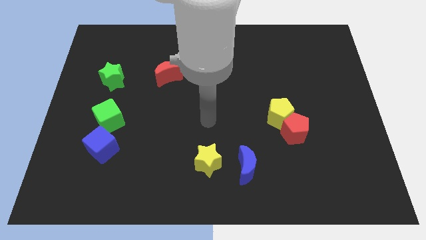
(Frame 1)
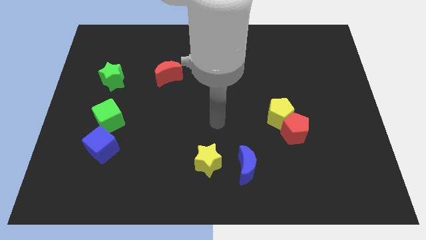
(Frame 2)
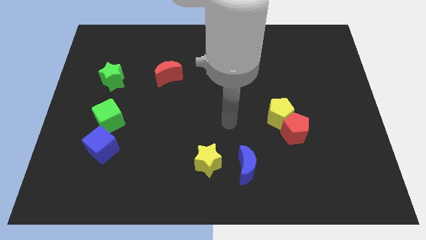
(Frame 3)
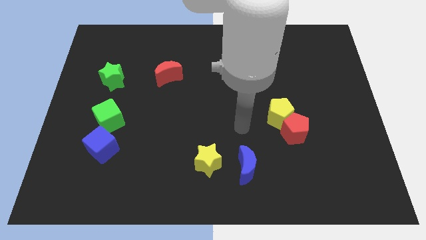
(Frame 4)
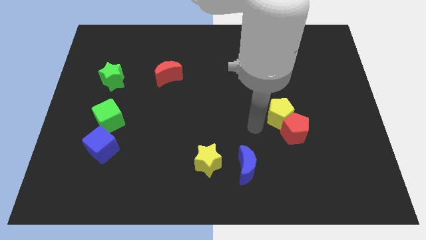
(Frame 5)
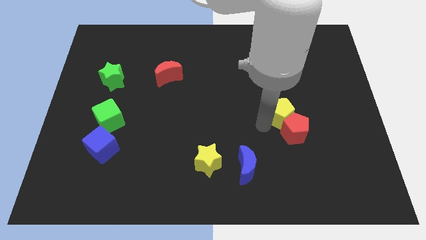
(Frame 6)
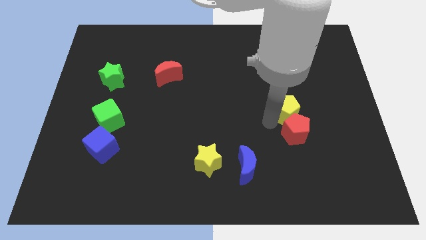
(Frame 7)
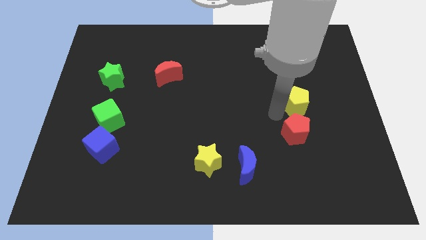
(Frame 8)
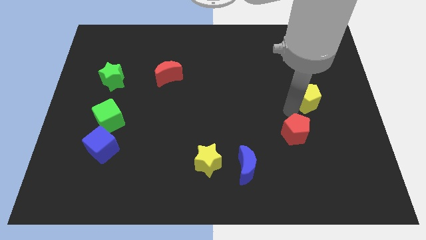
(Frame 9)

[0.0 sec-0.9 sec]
pull the red pentagon apart from the yellow pentagon

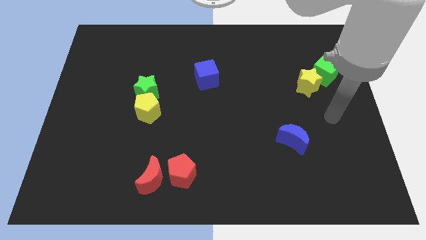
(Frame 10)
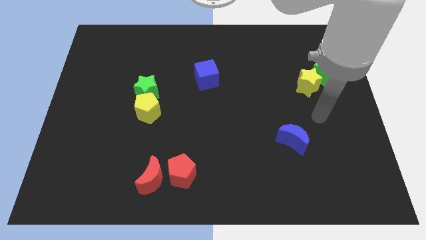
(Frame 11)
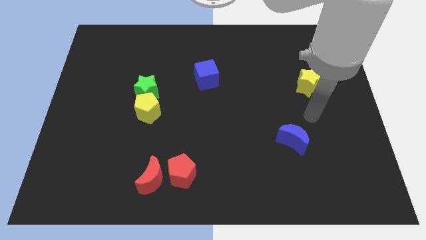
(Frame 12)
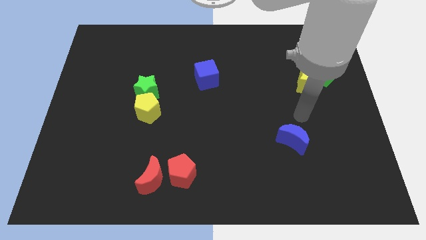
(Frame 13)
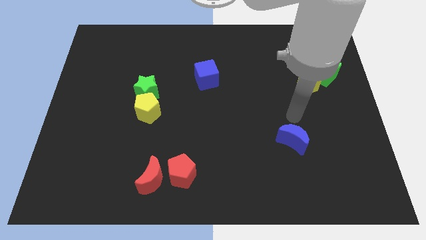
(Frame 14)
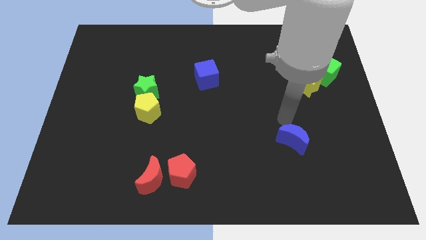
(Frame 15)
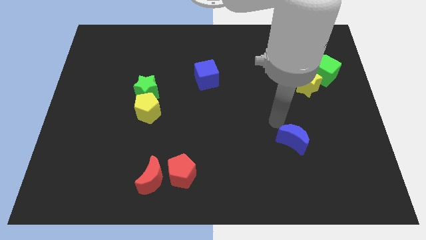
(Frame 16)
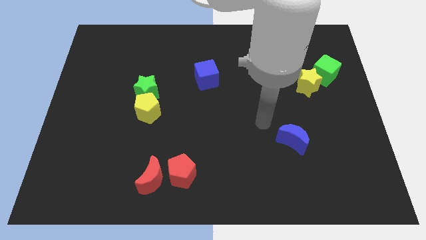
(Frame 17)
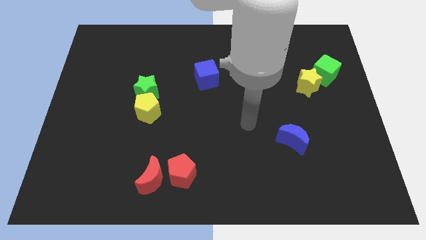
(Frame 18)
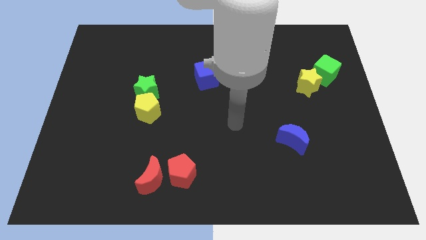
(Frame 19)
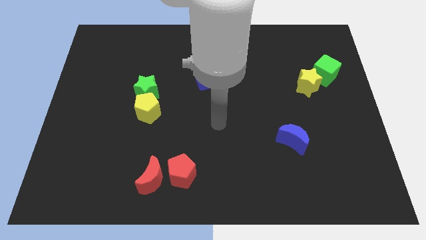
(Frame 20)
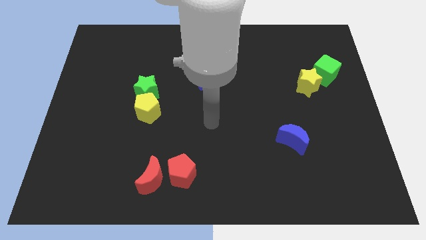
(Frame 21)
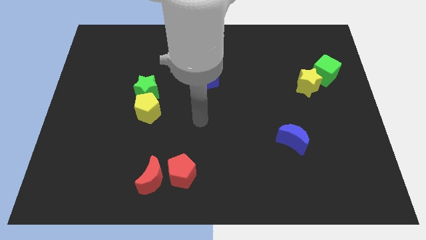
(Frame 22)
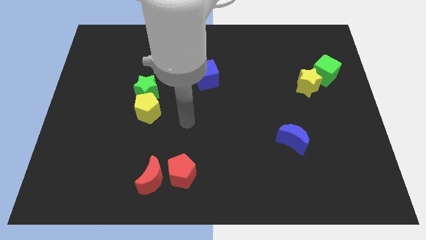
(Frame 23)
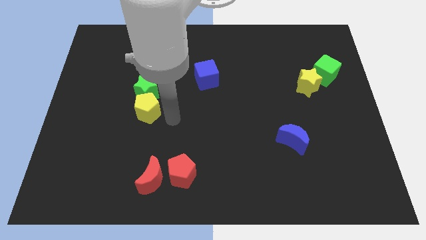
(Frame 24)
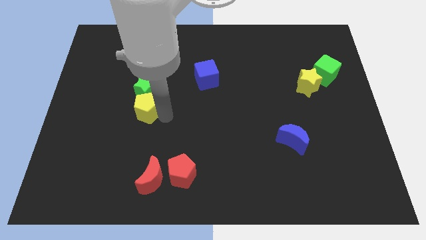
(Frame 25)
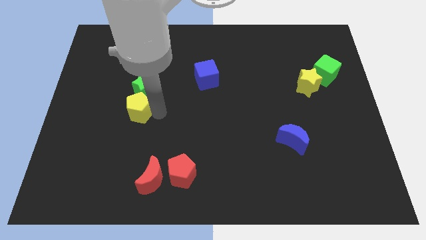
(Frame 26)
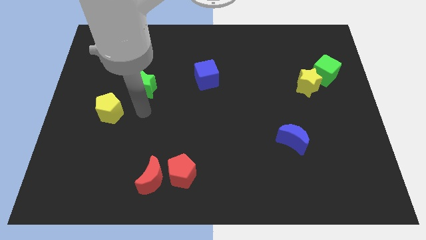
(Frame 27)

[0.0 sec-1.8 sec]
pull the green star apart from the yellow pentagon

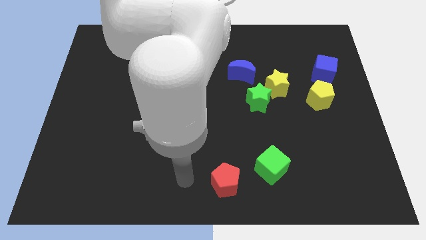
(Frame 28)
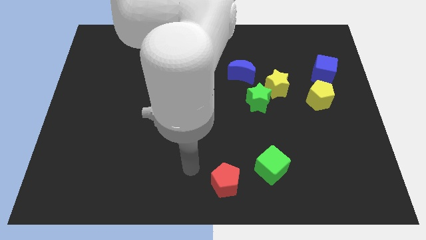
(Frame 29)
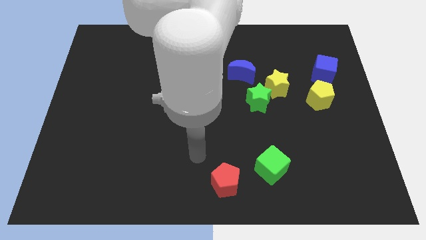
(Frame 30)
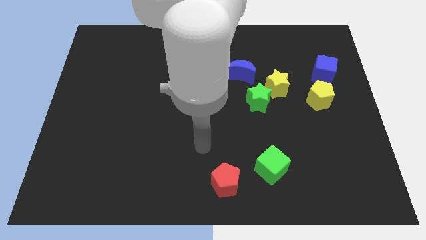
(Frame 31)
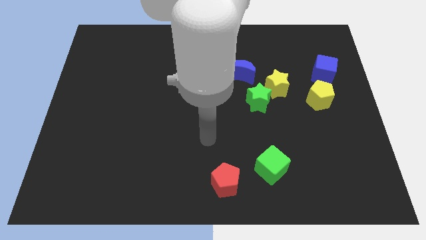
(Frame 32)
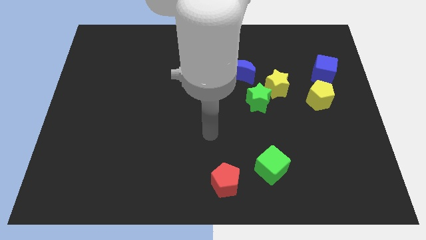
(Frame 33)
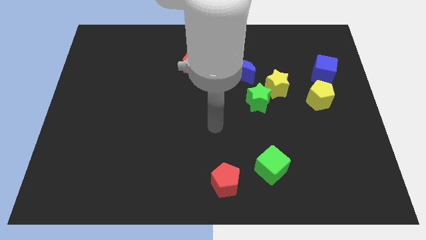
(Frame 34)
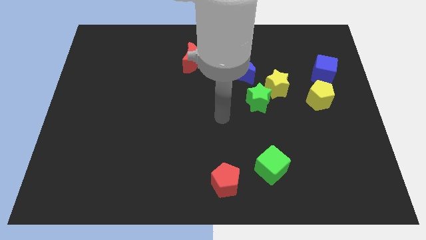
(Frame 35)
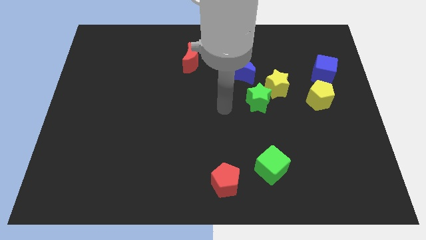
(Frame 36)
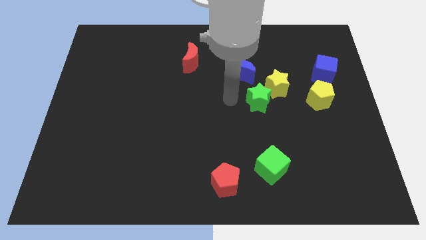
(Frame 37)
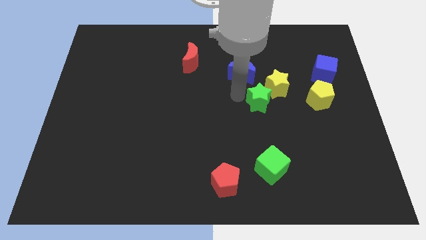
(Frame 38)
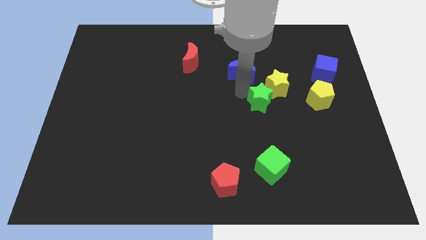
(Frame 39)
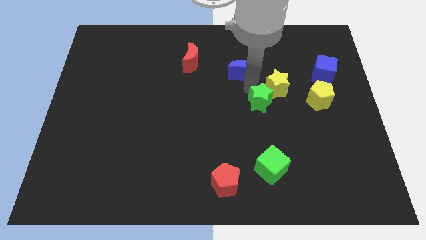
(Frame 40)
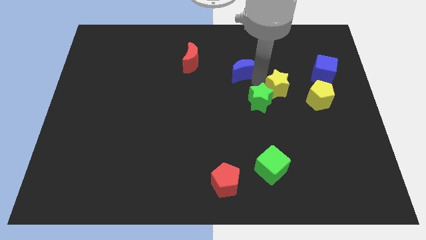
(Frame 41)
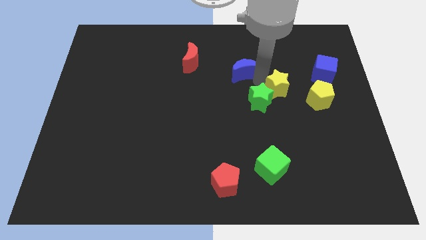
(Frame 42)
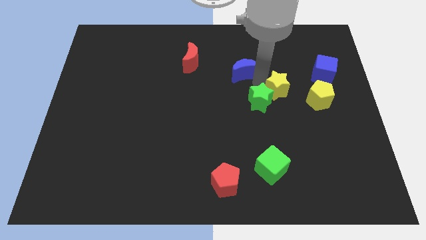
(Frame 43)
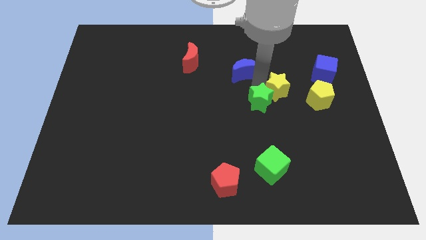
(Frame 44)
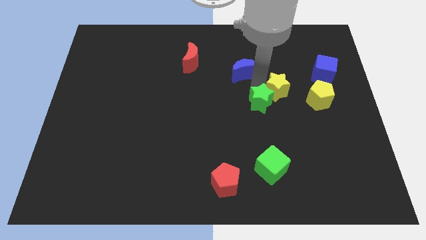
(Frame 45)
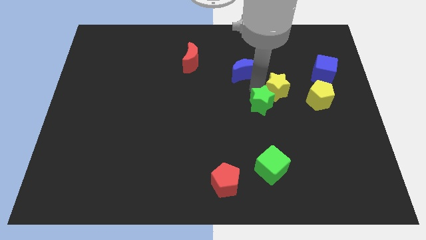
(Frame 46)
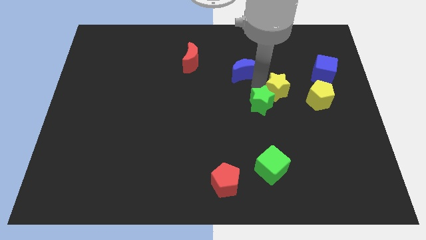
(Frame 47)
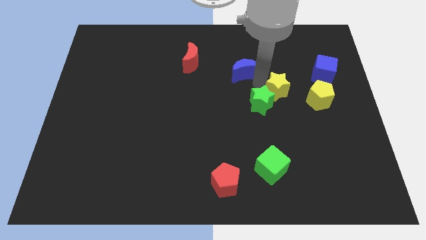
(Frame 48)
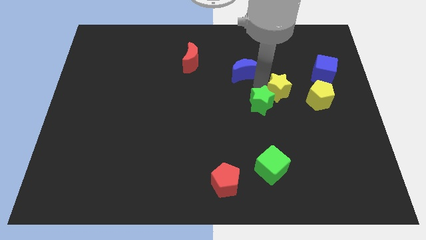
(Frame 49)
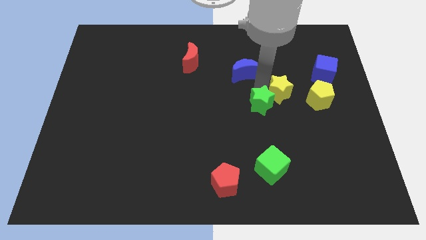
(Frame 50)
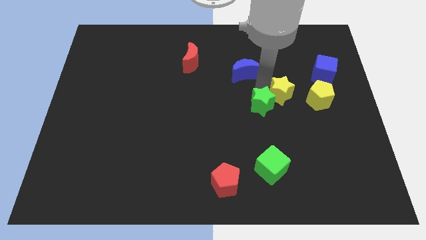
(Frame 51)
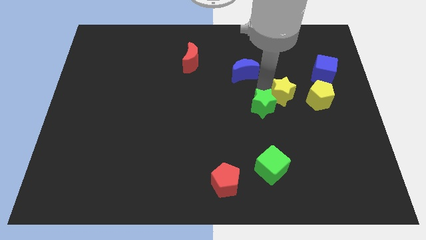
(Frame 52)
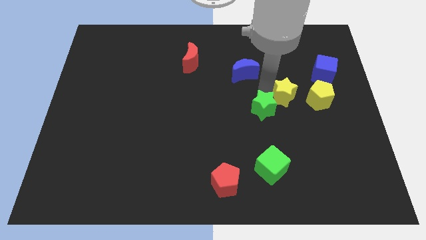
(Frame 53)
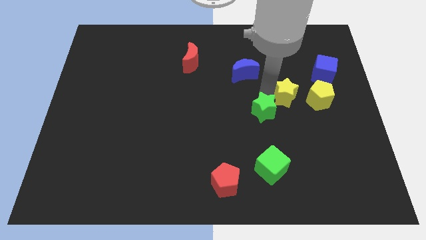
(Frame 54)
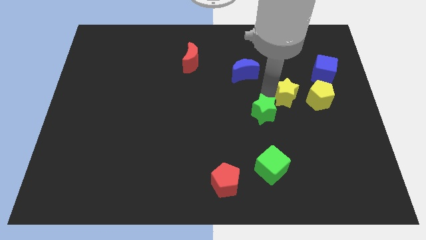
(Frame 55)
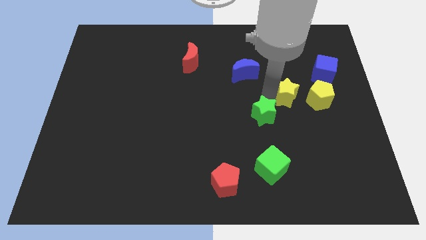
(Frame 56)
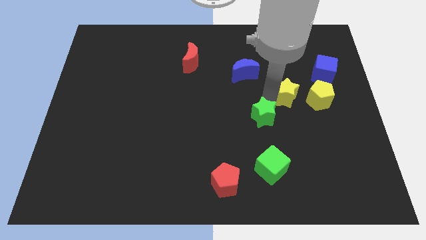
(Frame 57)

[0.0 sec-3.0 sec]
separate the green star from the yellow star and blue moon

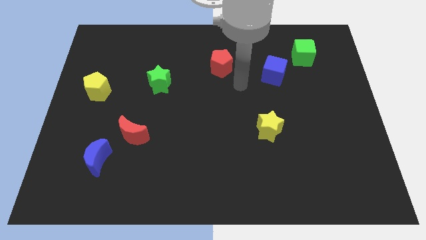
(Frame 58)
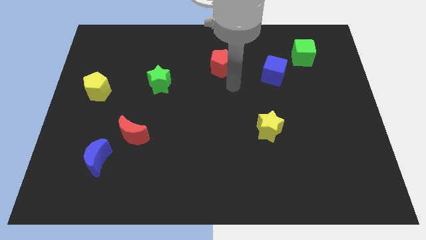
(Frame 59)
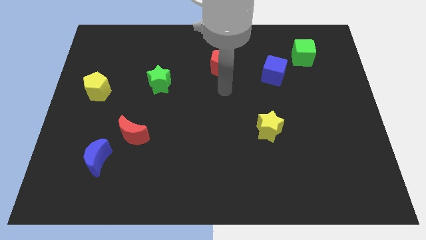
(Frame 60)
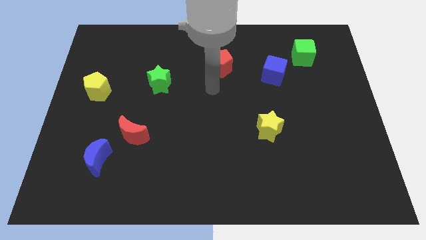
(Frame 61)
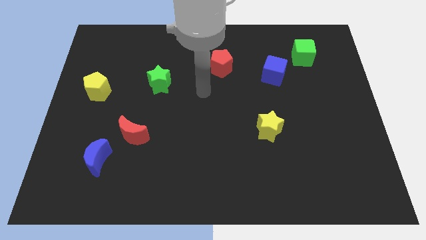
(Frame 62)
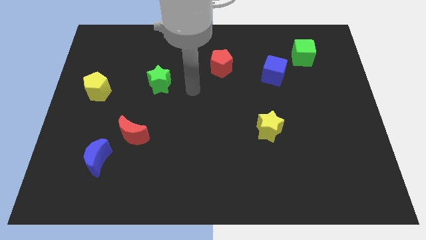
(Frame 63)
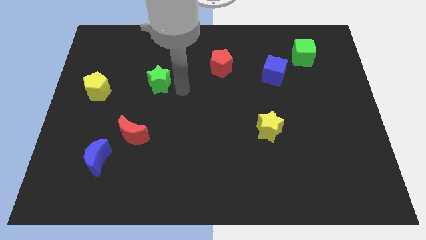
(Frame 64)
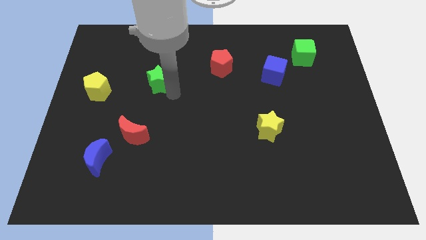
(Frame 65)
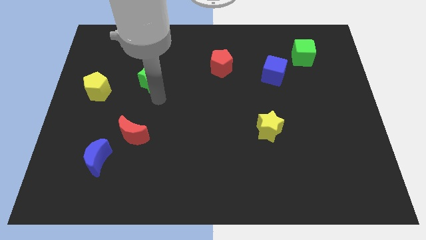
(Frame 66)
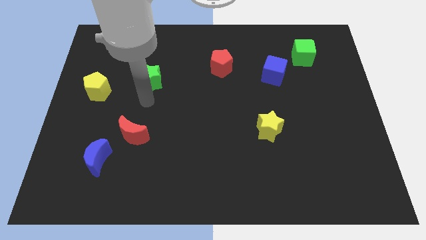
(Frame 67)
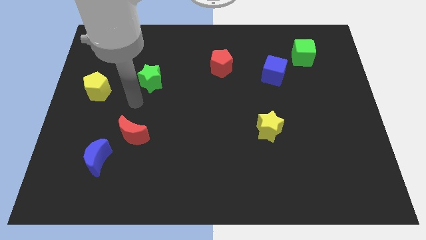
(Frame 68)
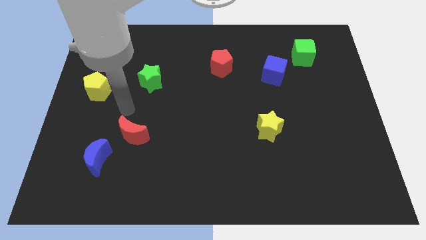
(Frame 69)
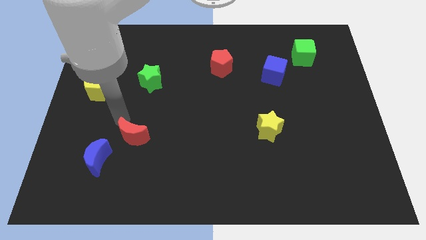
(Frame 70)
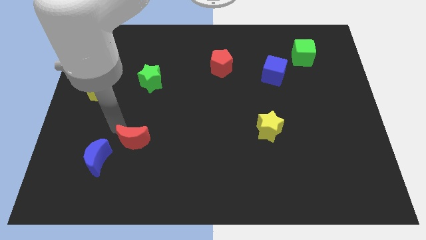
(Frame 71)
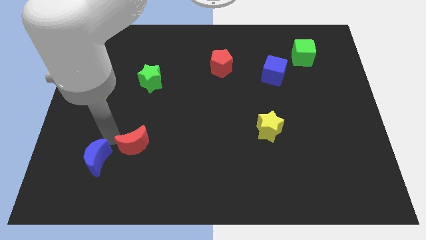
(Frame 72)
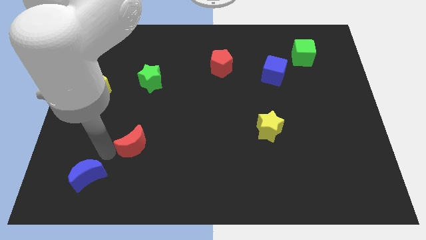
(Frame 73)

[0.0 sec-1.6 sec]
separate the red moon from the blue moon

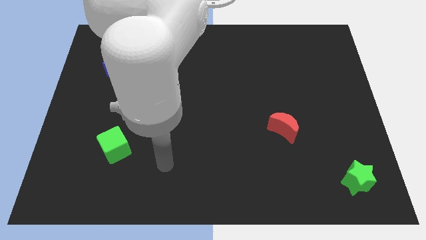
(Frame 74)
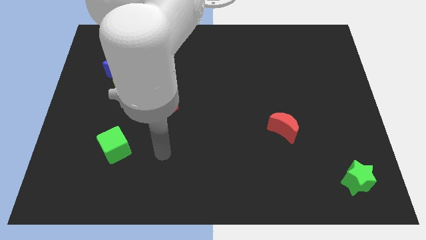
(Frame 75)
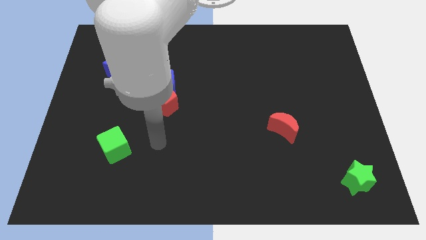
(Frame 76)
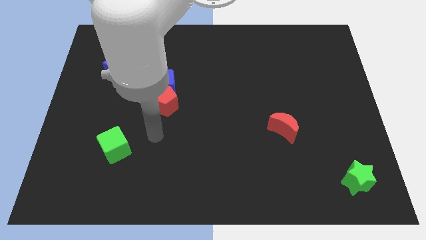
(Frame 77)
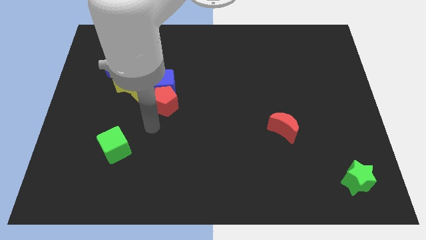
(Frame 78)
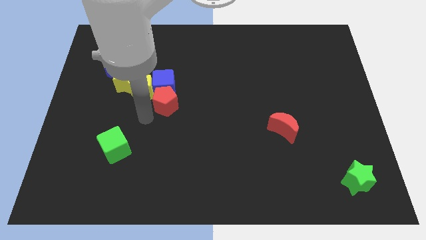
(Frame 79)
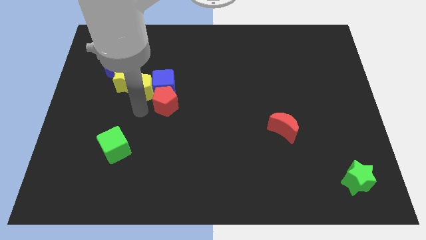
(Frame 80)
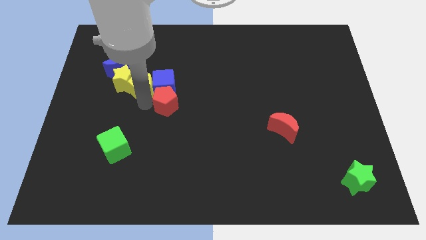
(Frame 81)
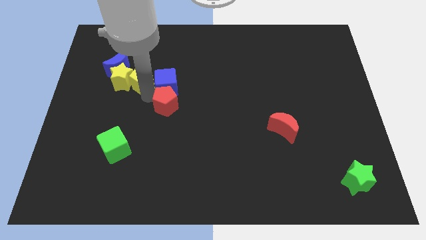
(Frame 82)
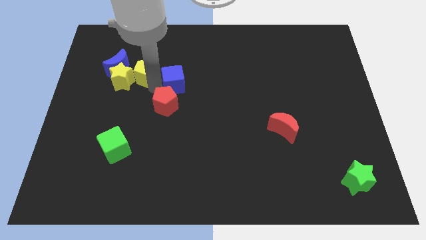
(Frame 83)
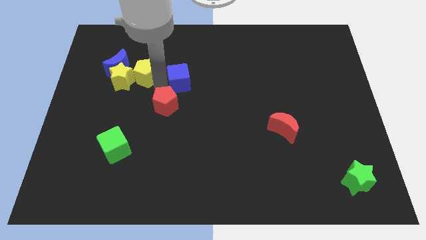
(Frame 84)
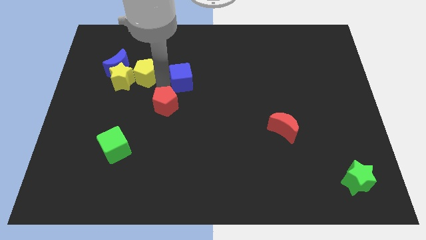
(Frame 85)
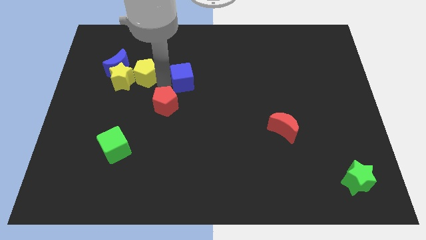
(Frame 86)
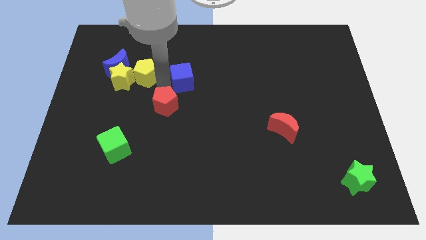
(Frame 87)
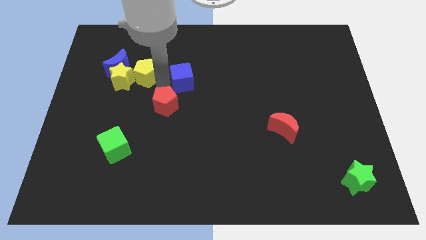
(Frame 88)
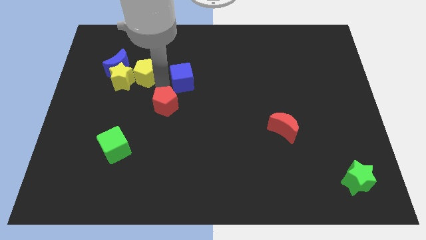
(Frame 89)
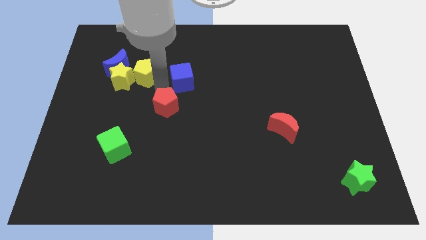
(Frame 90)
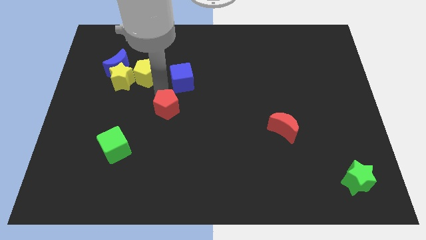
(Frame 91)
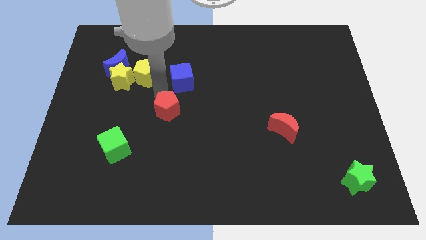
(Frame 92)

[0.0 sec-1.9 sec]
separate the red pentagon from the blue cube and yellow pentagon

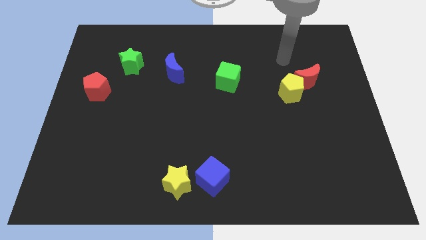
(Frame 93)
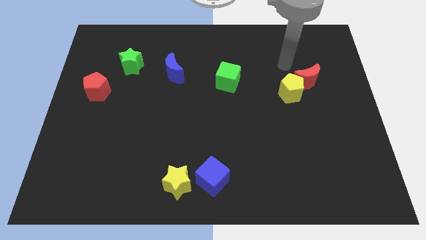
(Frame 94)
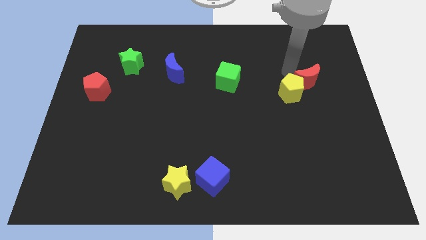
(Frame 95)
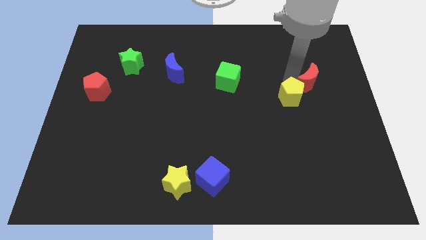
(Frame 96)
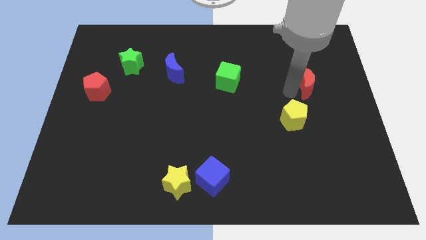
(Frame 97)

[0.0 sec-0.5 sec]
separate the red moon from the yellow pentagon
